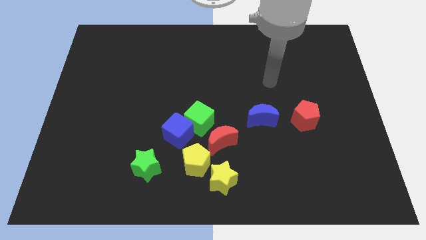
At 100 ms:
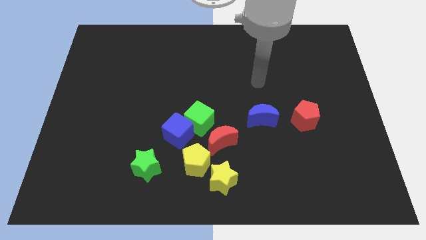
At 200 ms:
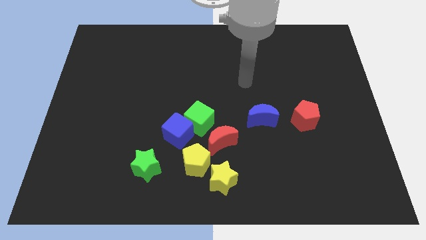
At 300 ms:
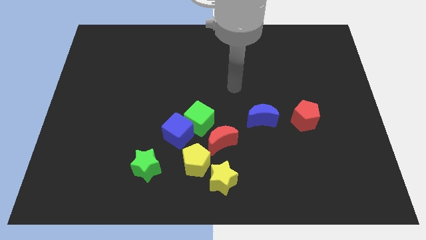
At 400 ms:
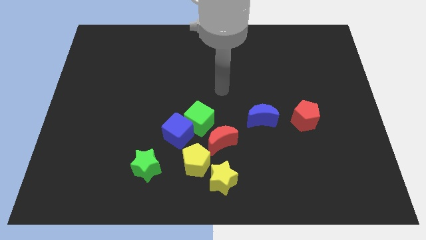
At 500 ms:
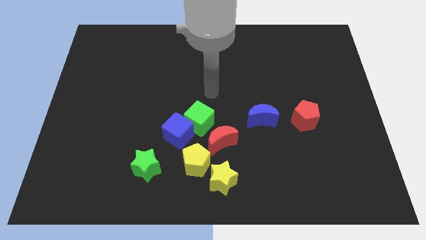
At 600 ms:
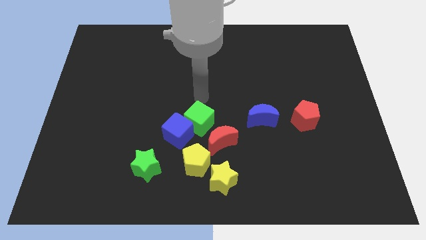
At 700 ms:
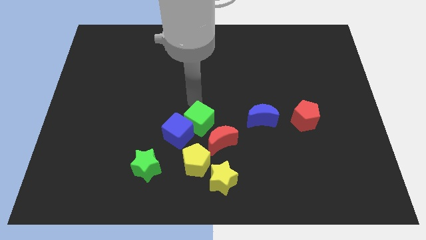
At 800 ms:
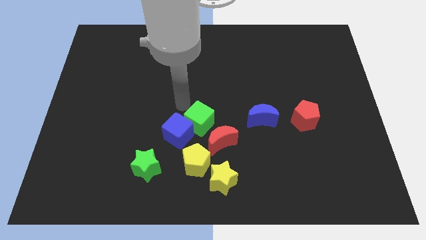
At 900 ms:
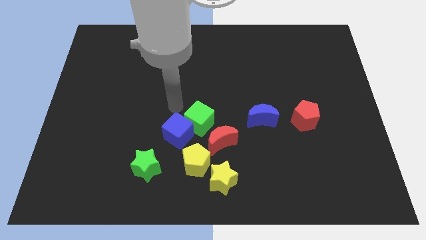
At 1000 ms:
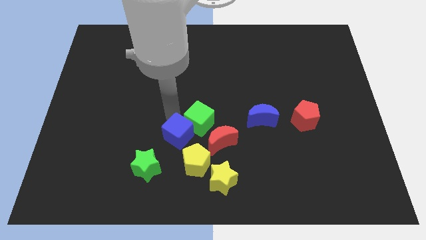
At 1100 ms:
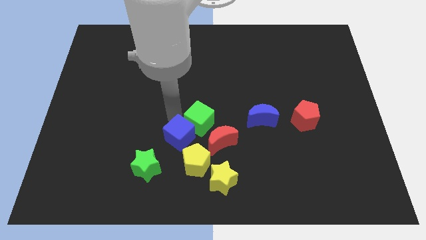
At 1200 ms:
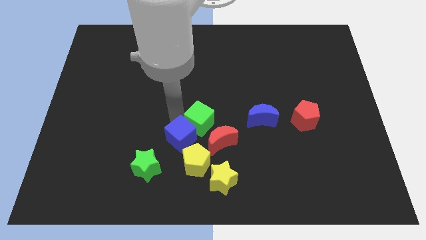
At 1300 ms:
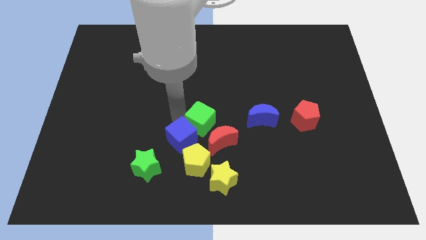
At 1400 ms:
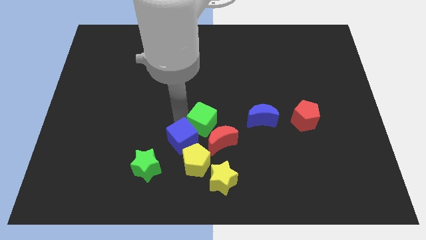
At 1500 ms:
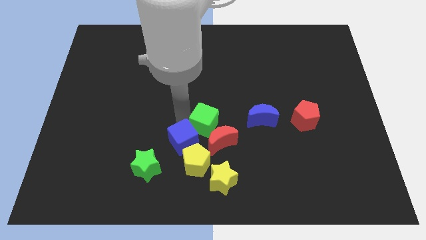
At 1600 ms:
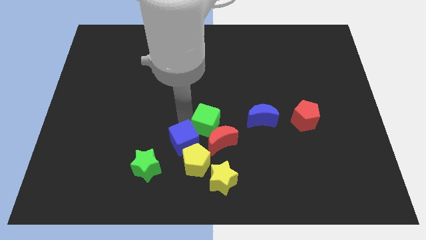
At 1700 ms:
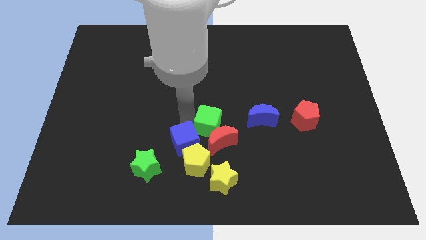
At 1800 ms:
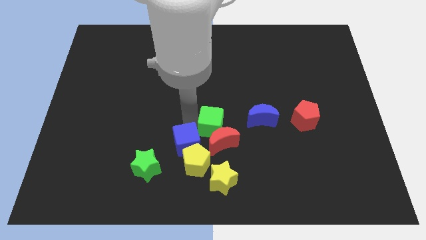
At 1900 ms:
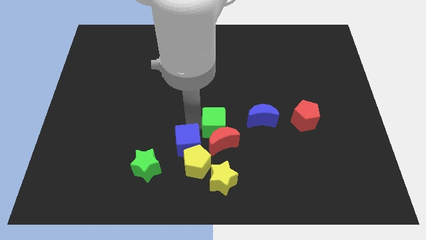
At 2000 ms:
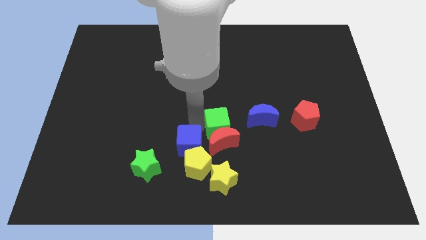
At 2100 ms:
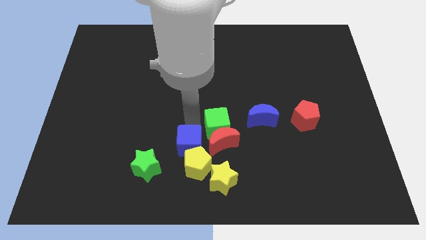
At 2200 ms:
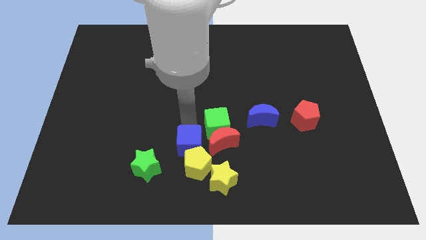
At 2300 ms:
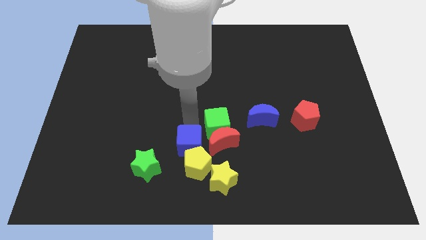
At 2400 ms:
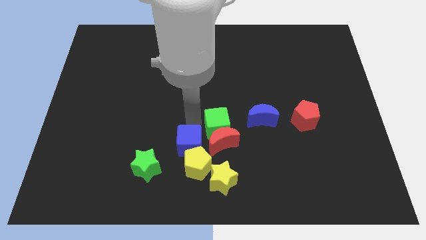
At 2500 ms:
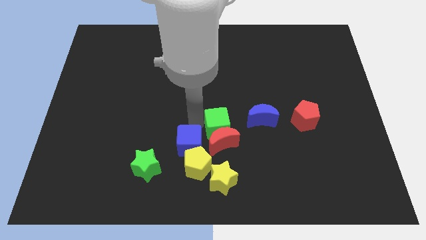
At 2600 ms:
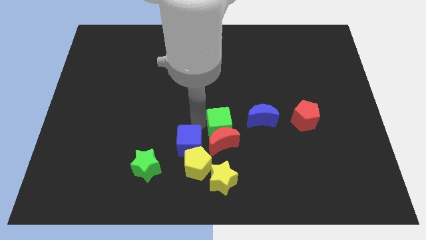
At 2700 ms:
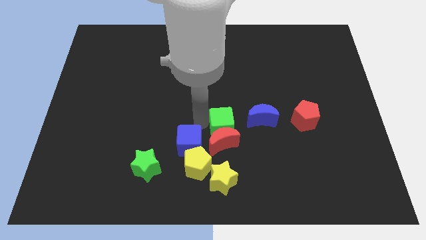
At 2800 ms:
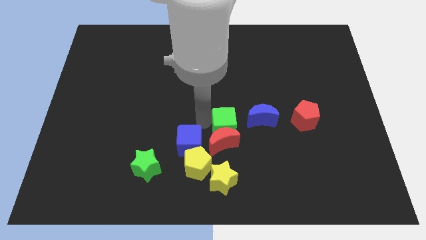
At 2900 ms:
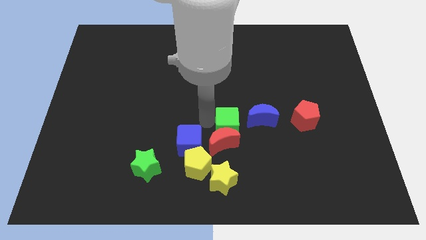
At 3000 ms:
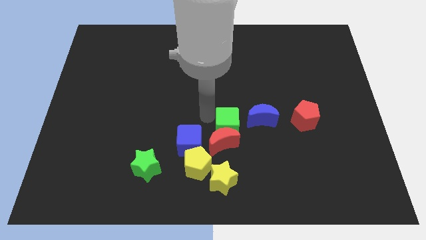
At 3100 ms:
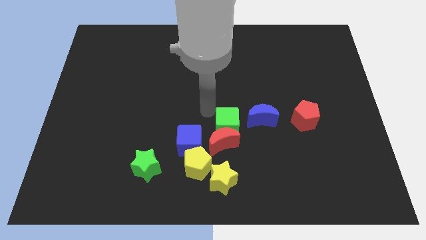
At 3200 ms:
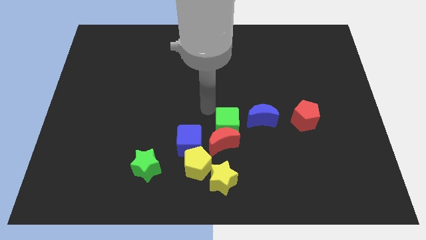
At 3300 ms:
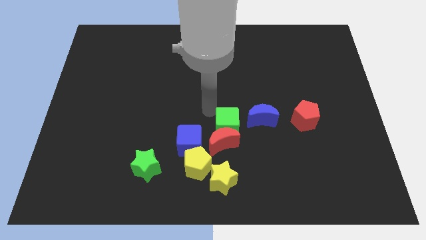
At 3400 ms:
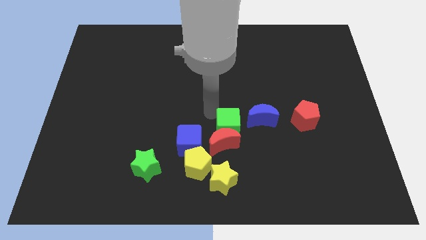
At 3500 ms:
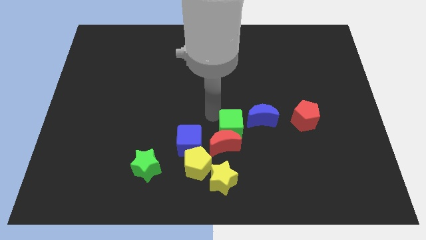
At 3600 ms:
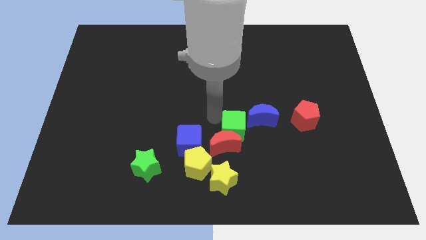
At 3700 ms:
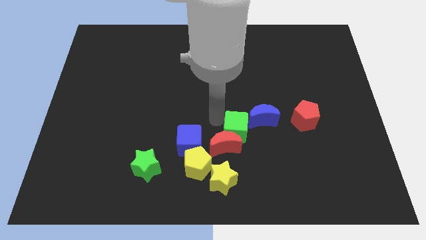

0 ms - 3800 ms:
slightly slide the green cube down and right diagonally

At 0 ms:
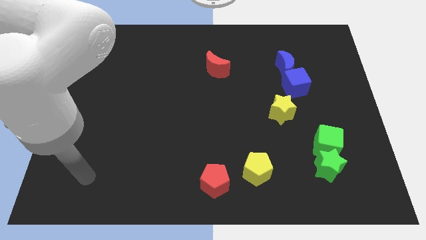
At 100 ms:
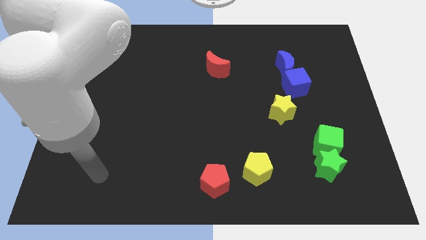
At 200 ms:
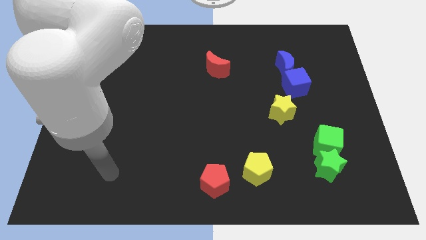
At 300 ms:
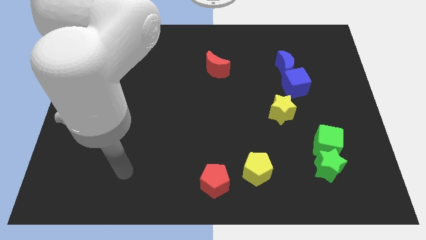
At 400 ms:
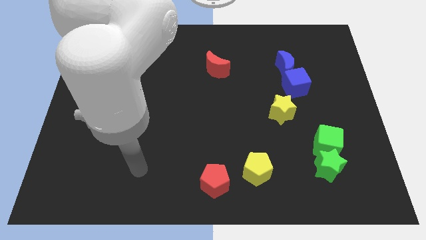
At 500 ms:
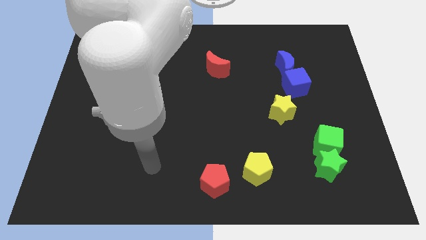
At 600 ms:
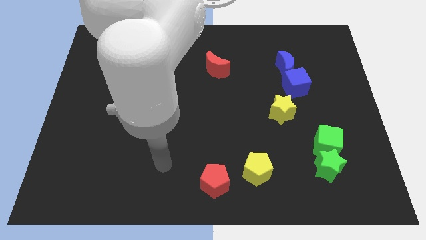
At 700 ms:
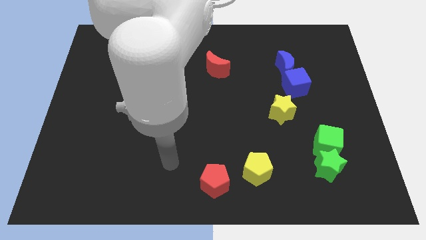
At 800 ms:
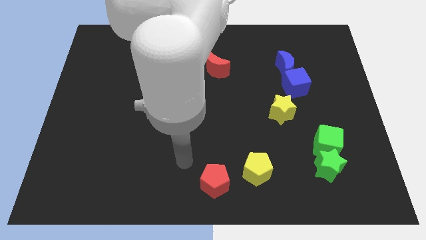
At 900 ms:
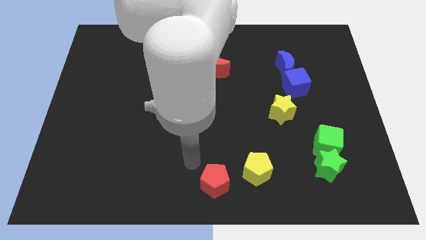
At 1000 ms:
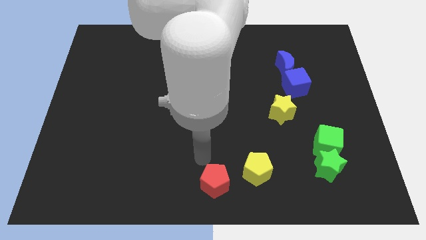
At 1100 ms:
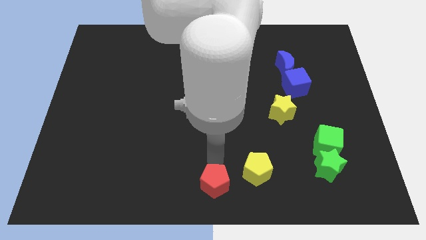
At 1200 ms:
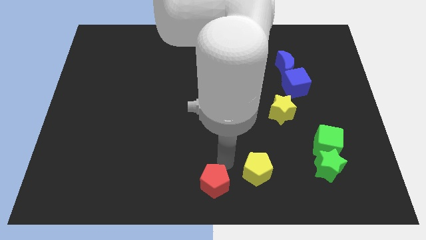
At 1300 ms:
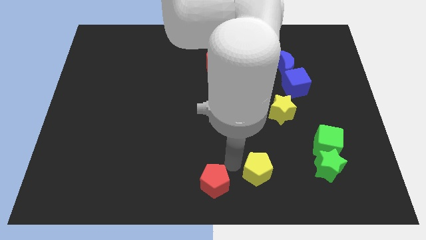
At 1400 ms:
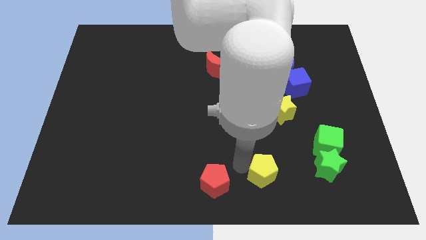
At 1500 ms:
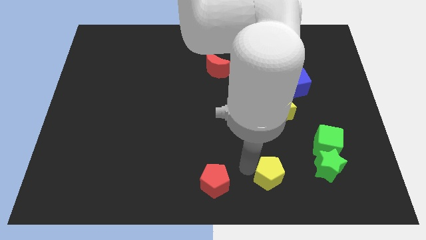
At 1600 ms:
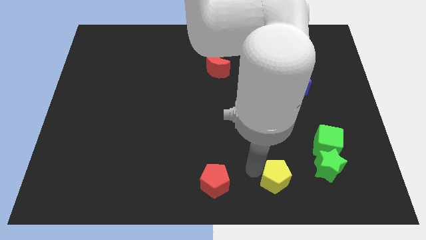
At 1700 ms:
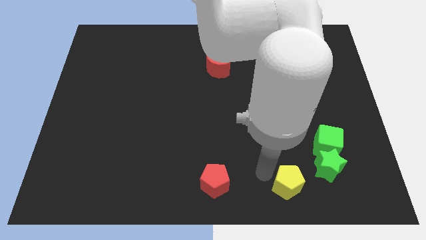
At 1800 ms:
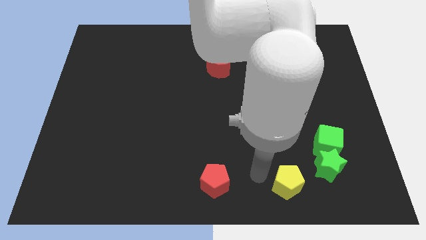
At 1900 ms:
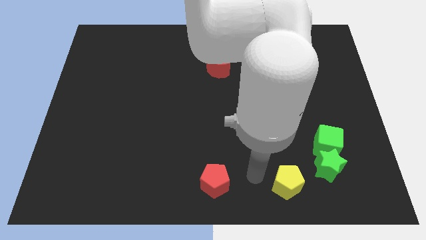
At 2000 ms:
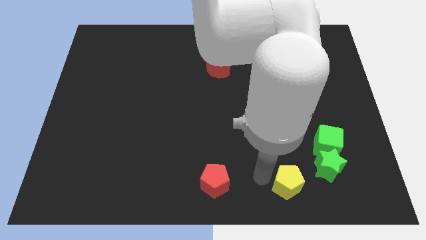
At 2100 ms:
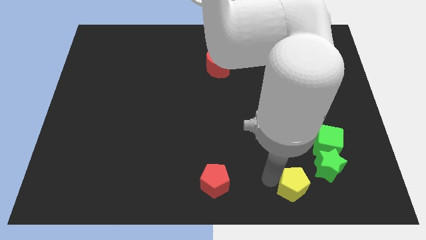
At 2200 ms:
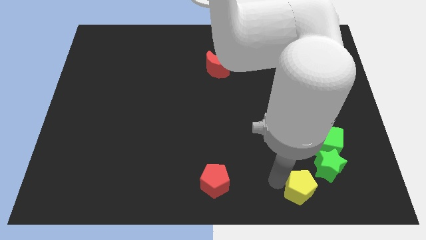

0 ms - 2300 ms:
push the yellow pentagon slightly right

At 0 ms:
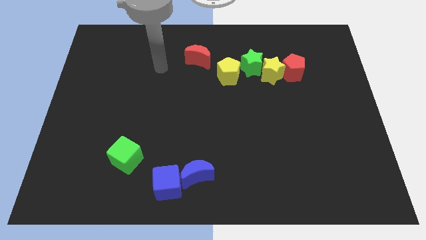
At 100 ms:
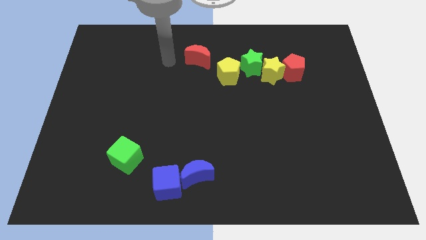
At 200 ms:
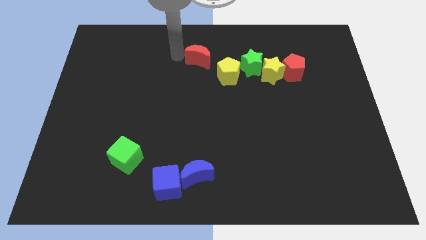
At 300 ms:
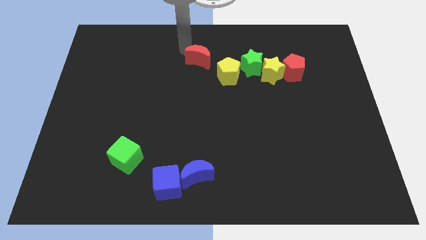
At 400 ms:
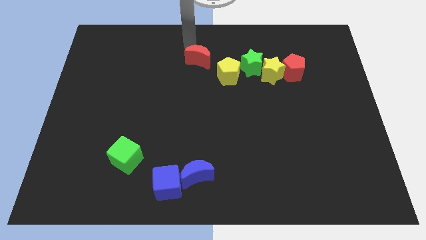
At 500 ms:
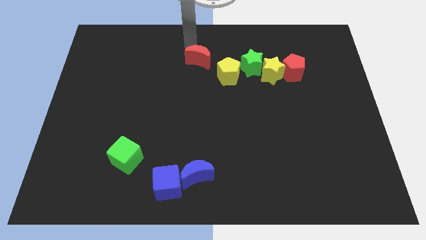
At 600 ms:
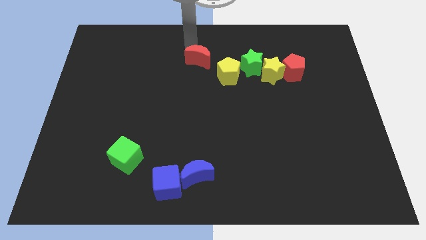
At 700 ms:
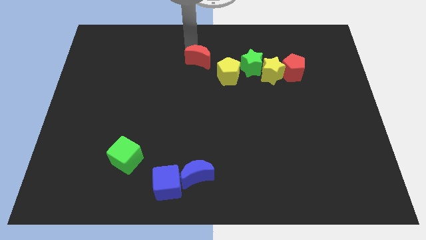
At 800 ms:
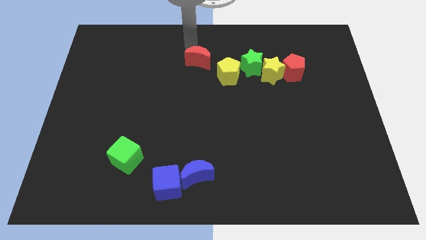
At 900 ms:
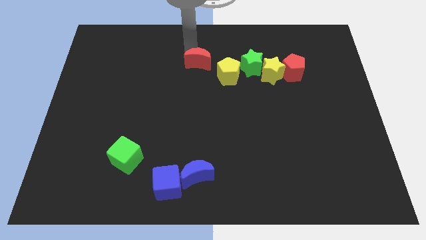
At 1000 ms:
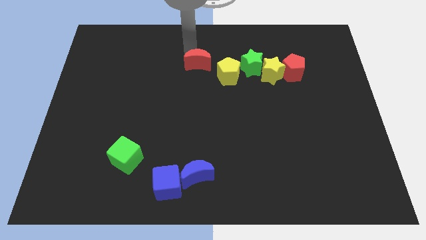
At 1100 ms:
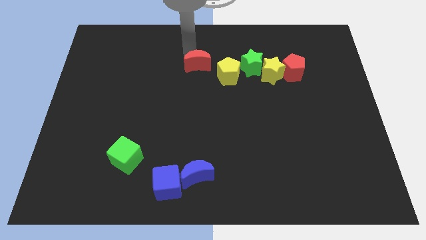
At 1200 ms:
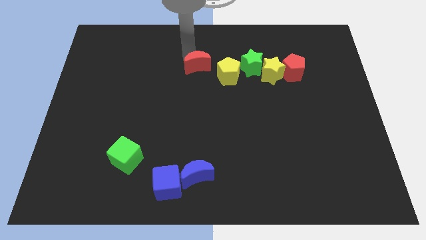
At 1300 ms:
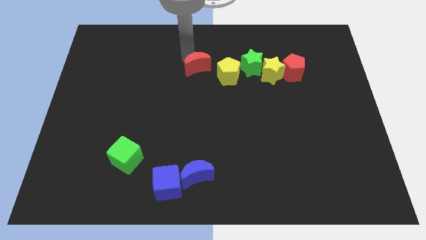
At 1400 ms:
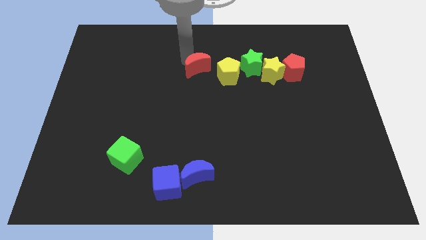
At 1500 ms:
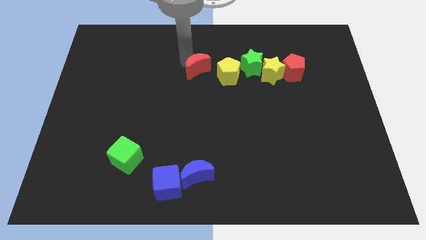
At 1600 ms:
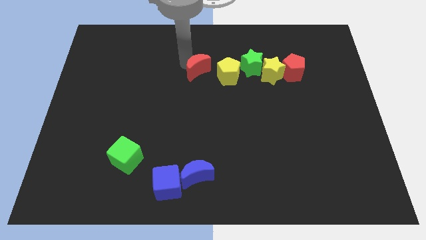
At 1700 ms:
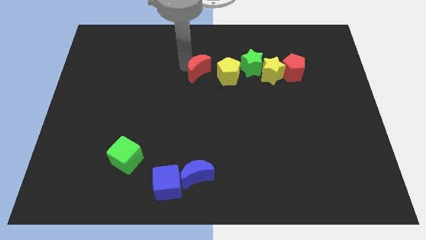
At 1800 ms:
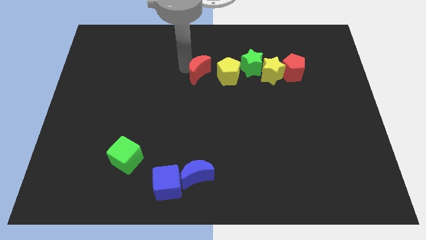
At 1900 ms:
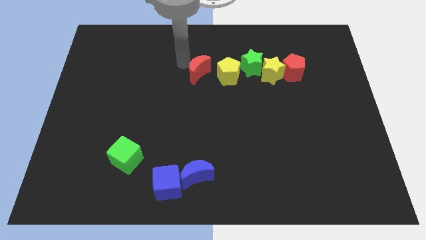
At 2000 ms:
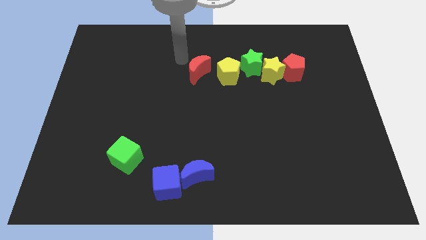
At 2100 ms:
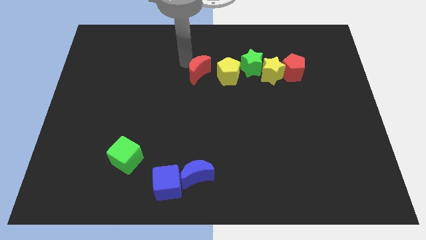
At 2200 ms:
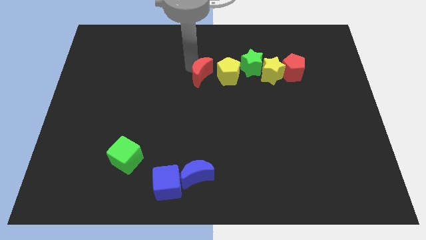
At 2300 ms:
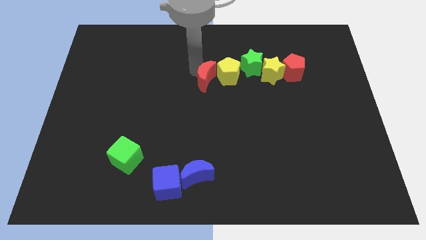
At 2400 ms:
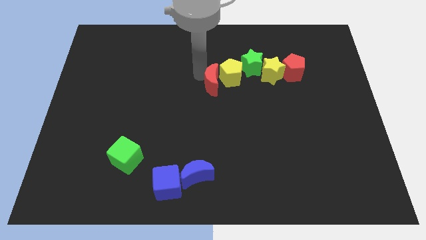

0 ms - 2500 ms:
move the red moon downwards and right diagonally slightly
